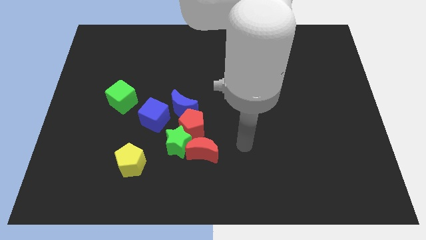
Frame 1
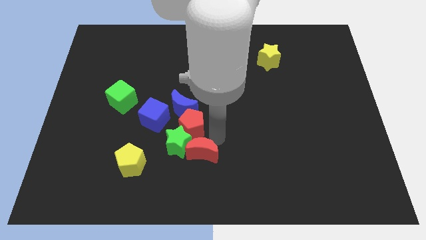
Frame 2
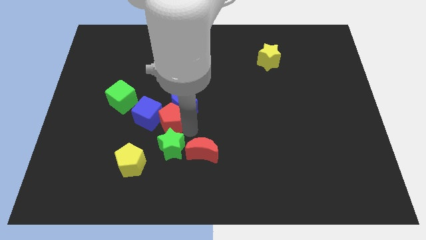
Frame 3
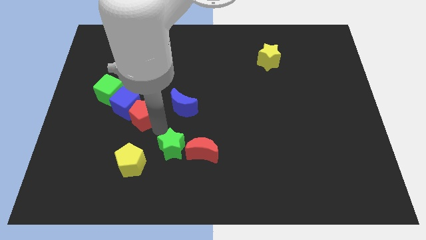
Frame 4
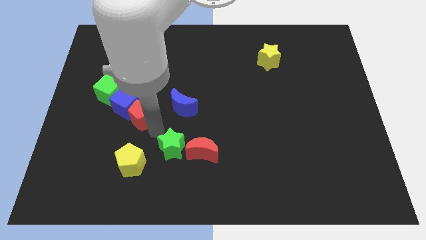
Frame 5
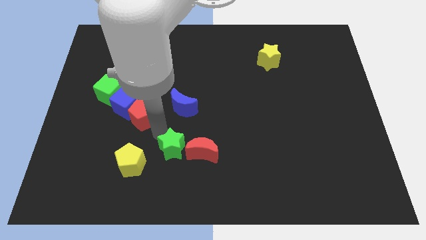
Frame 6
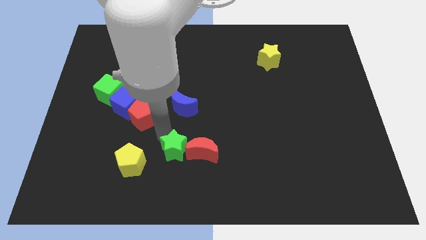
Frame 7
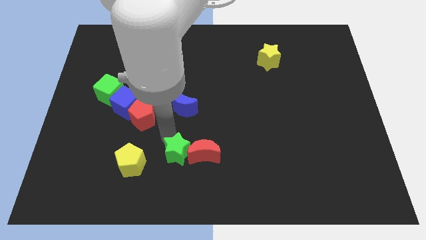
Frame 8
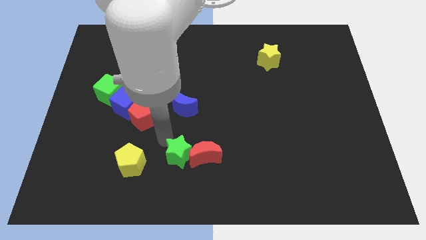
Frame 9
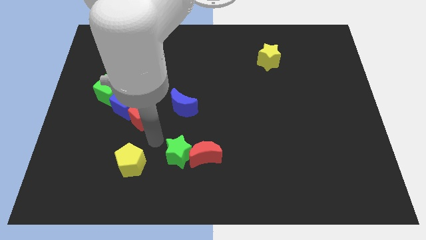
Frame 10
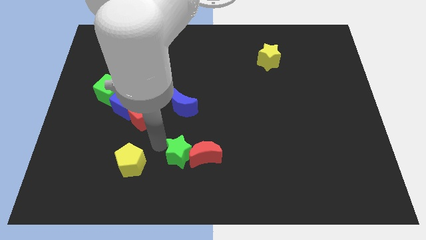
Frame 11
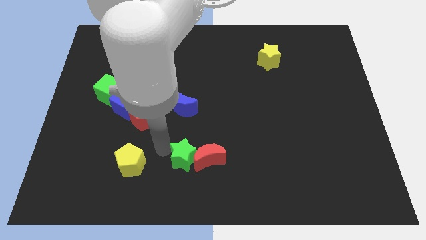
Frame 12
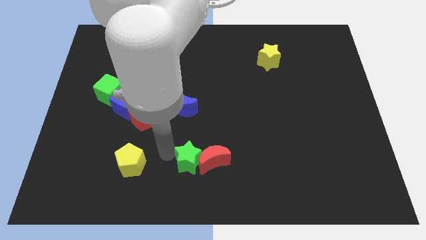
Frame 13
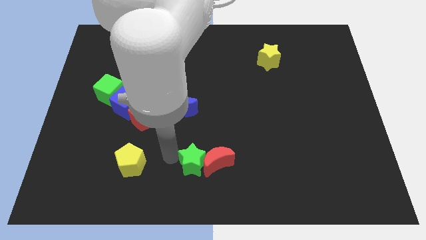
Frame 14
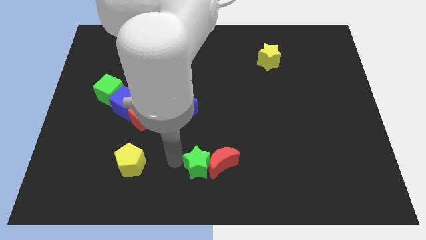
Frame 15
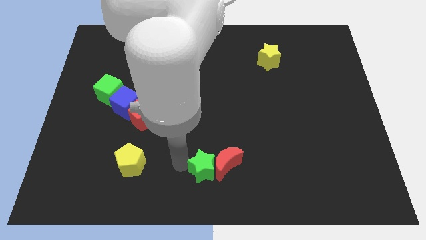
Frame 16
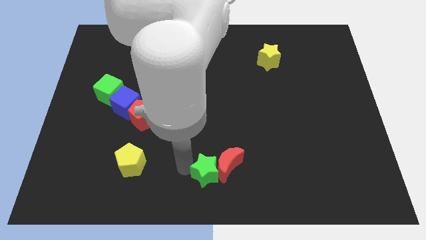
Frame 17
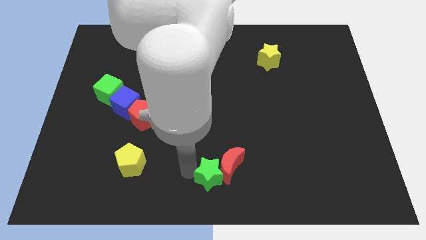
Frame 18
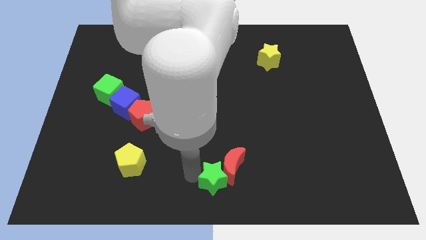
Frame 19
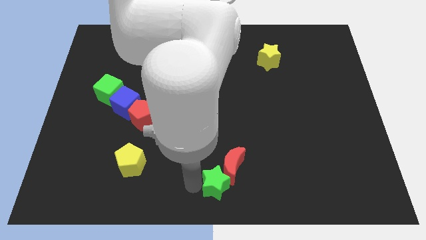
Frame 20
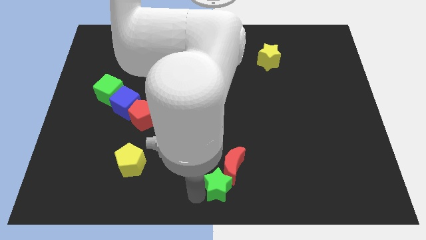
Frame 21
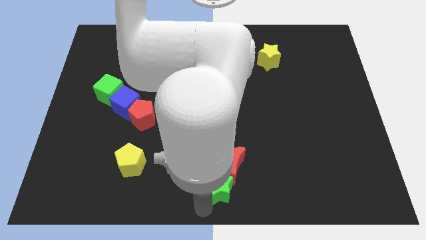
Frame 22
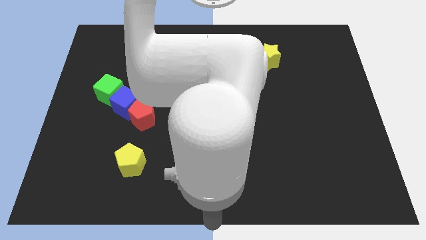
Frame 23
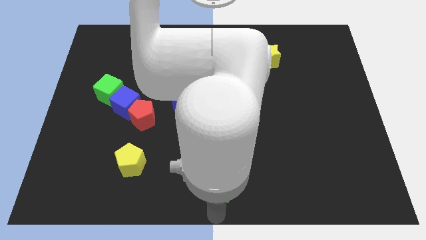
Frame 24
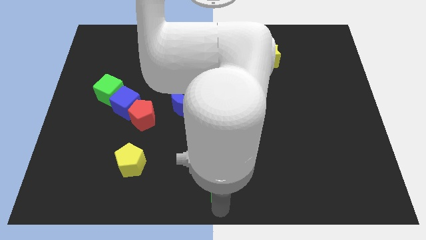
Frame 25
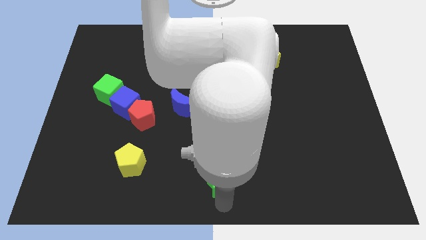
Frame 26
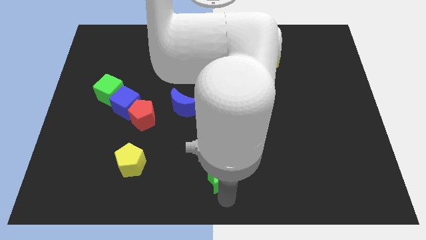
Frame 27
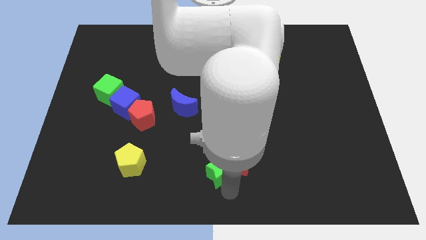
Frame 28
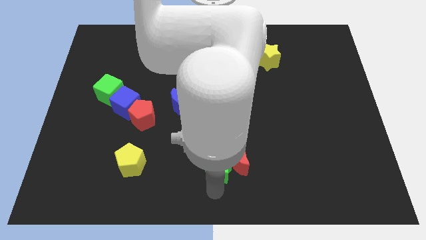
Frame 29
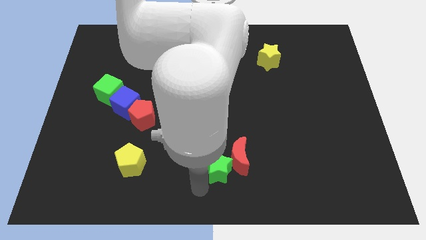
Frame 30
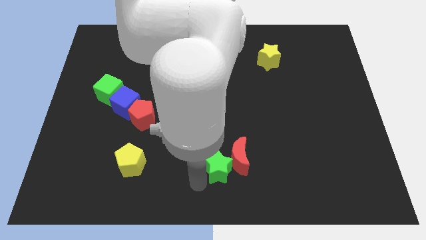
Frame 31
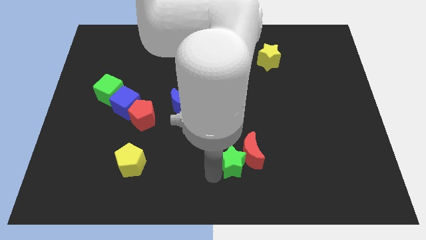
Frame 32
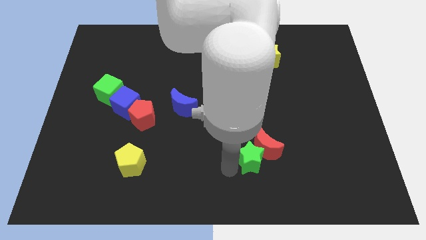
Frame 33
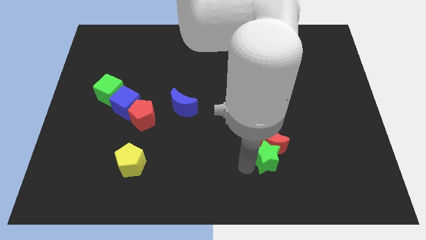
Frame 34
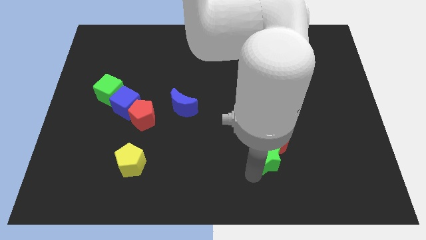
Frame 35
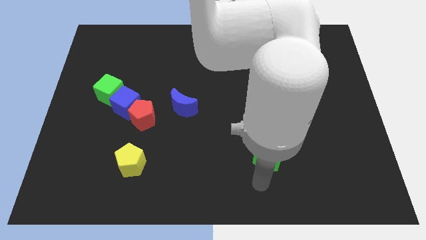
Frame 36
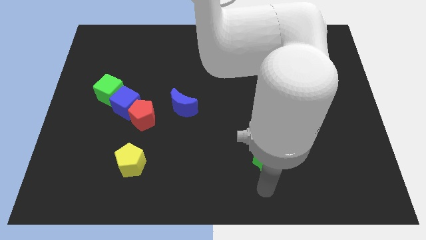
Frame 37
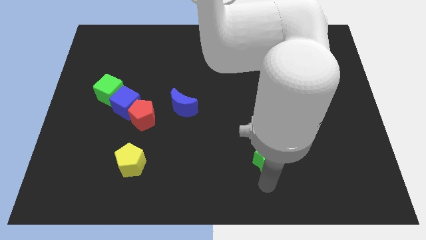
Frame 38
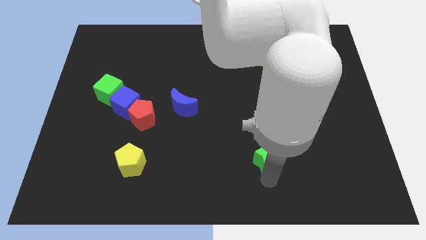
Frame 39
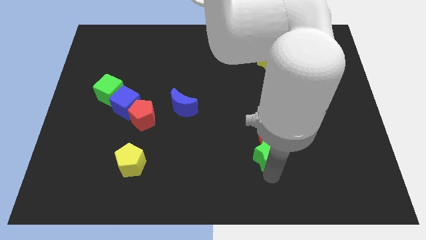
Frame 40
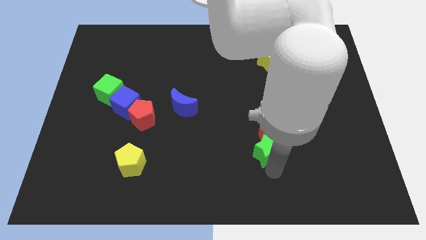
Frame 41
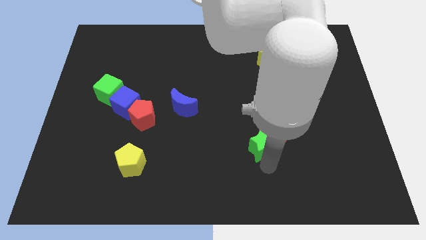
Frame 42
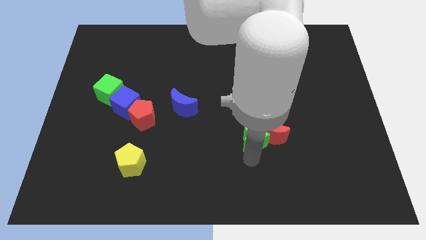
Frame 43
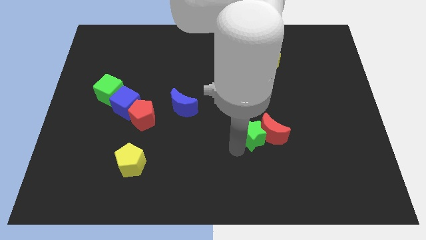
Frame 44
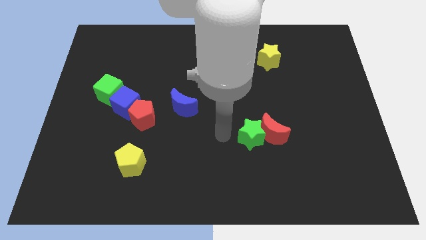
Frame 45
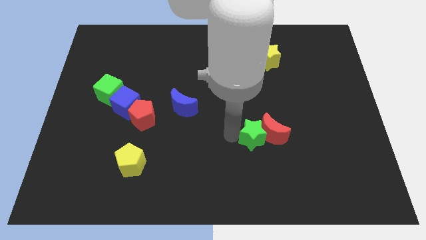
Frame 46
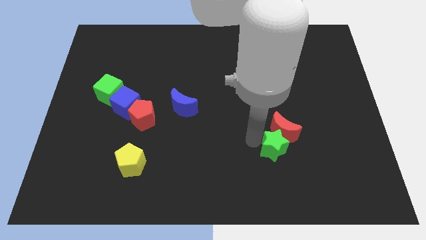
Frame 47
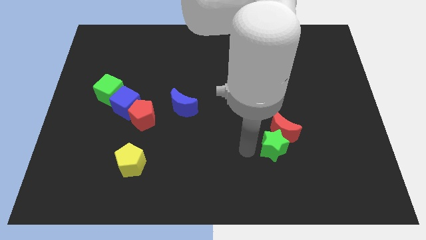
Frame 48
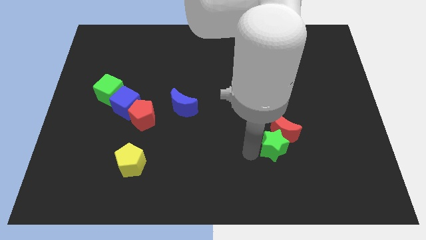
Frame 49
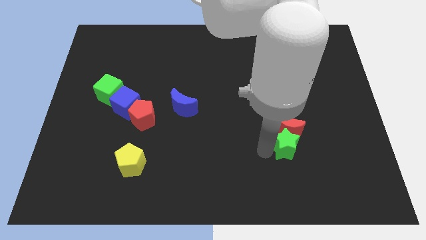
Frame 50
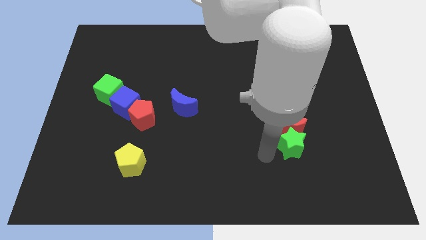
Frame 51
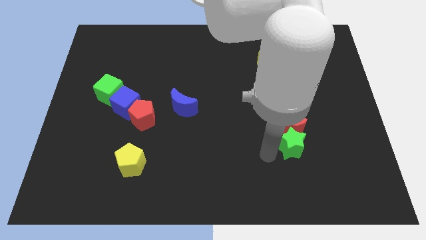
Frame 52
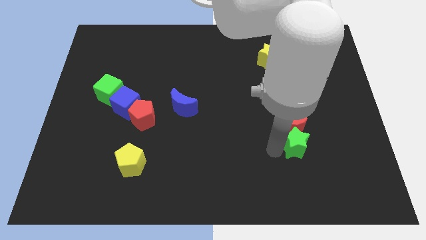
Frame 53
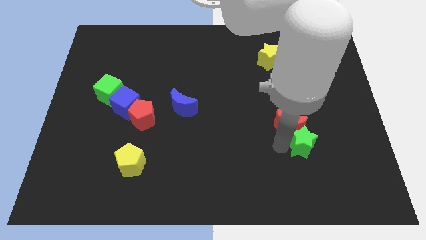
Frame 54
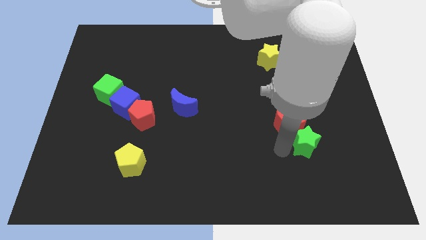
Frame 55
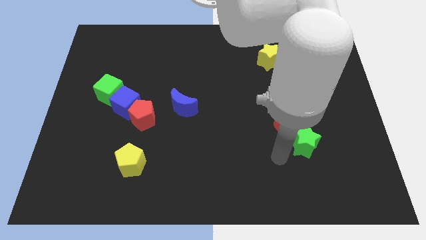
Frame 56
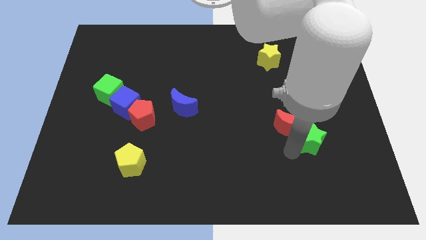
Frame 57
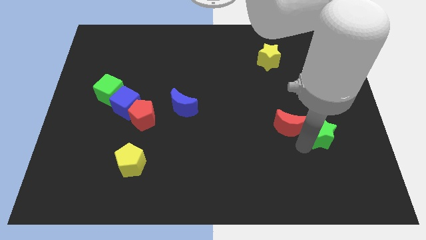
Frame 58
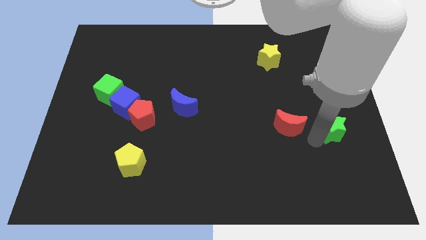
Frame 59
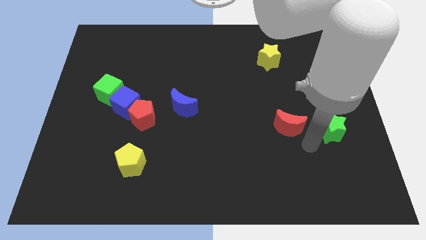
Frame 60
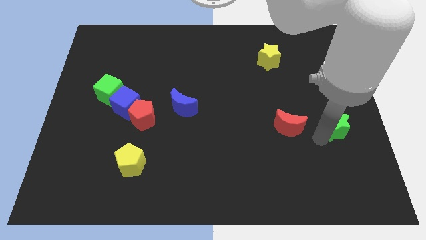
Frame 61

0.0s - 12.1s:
slide the green star to the right side of the board

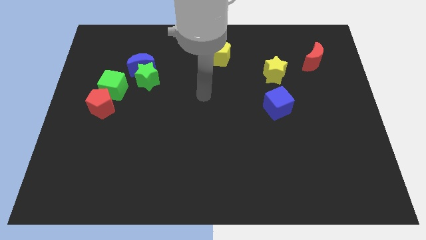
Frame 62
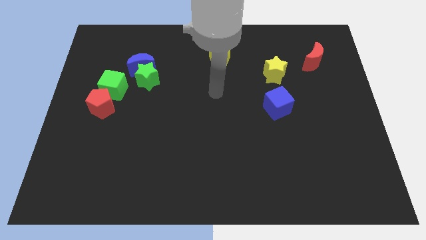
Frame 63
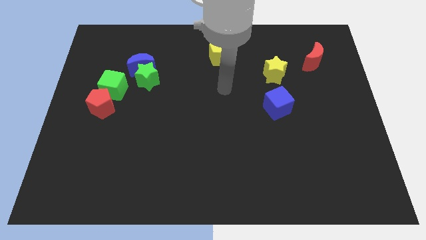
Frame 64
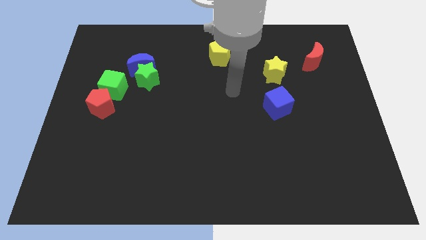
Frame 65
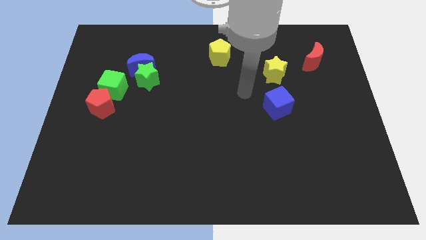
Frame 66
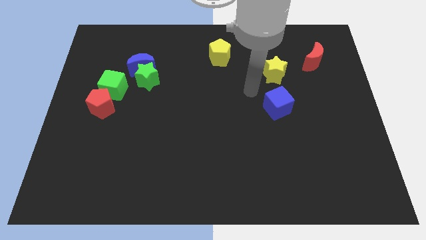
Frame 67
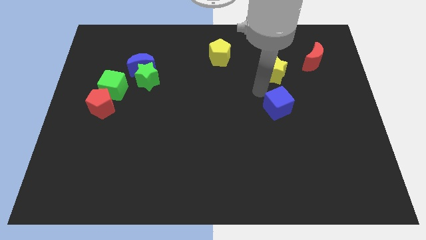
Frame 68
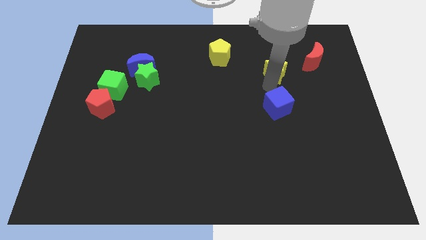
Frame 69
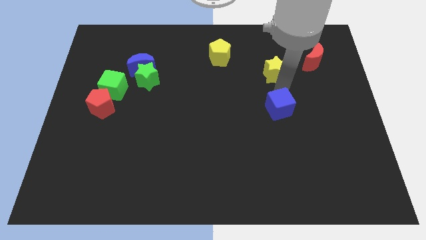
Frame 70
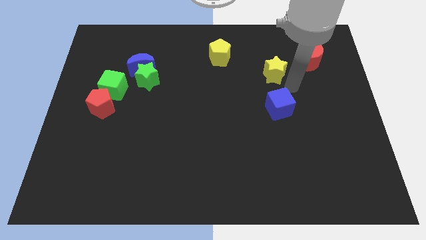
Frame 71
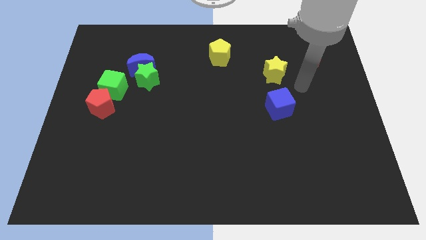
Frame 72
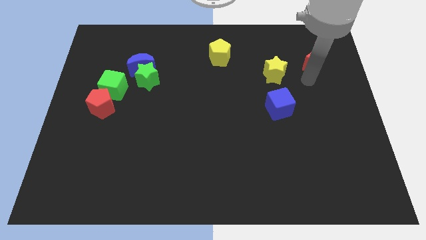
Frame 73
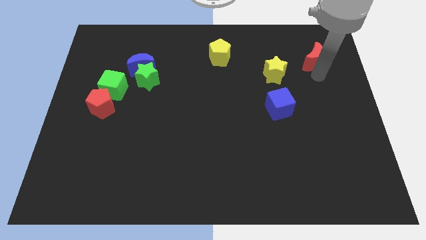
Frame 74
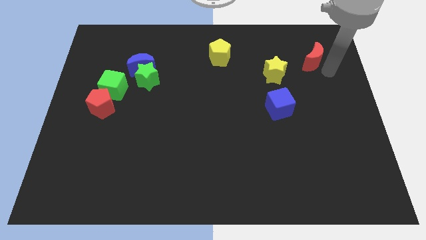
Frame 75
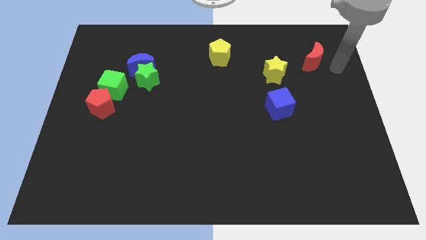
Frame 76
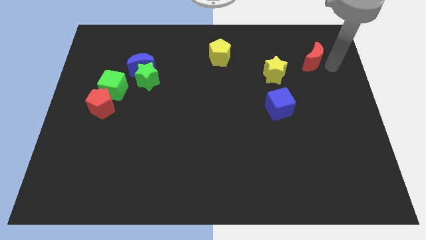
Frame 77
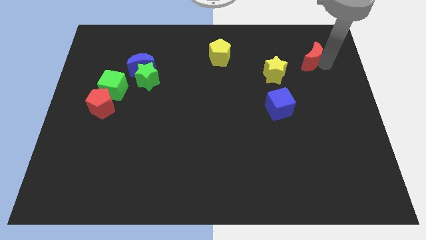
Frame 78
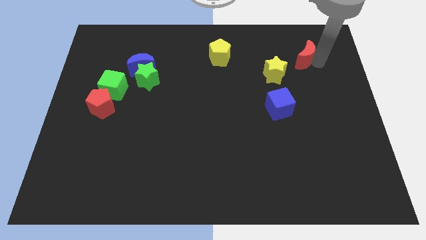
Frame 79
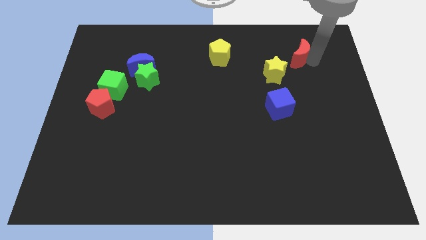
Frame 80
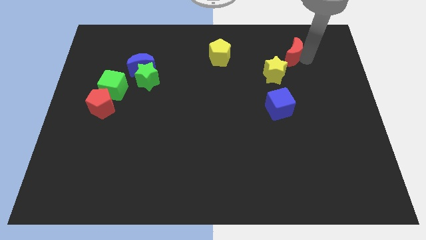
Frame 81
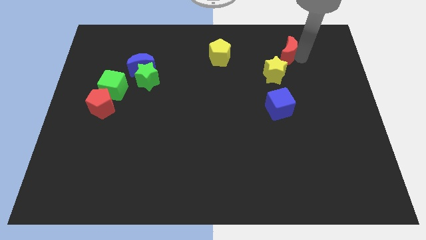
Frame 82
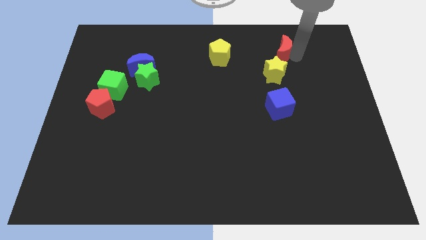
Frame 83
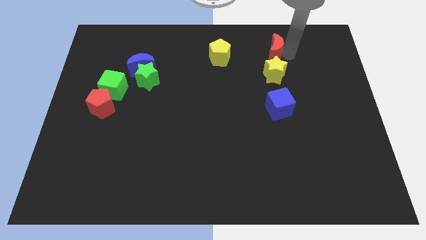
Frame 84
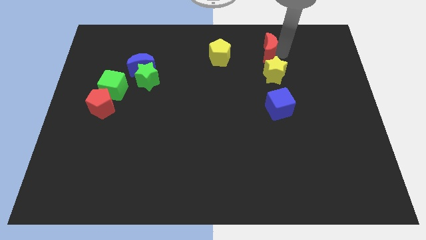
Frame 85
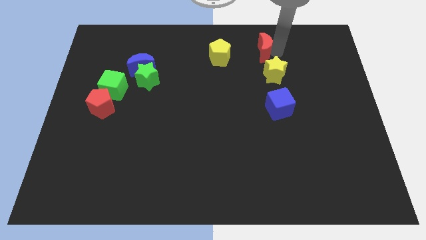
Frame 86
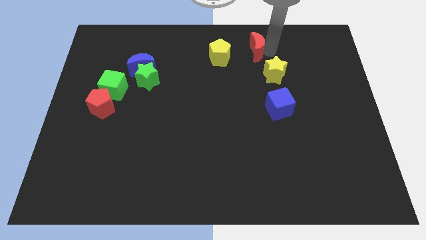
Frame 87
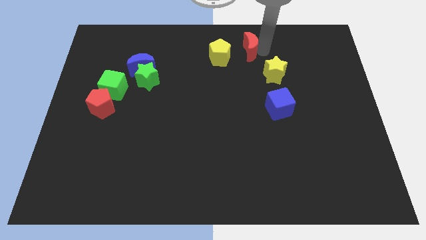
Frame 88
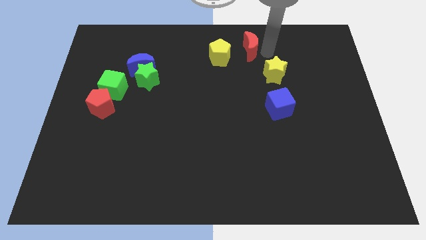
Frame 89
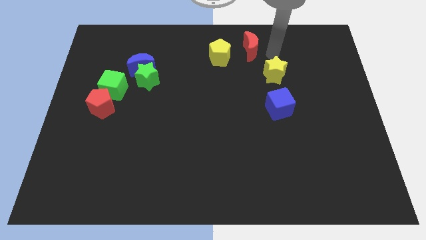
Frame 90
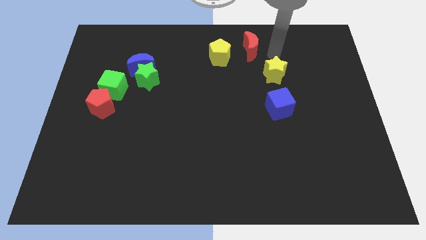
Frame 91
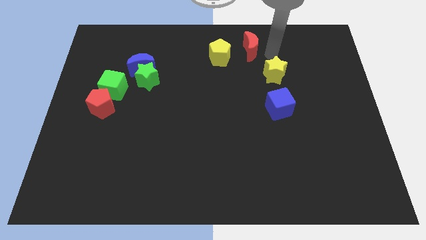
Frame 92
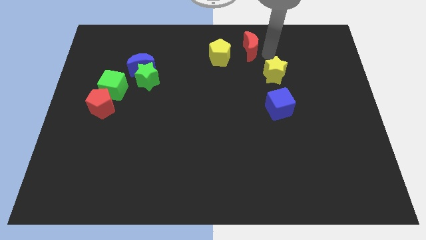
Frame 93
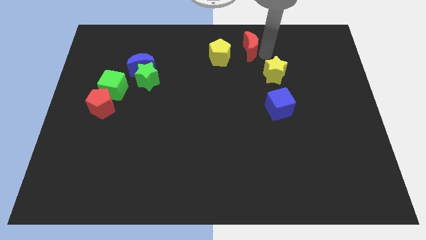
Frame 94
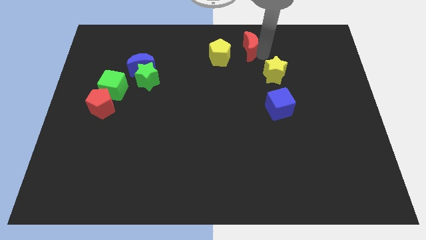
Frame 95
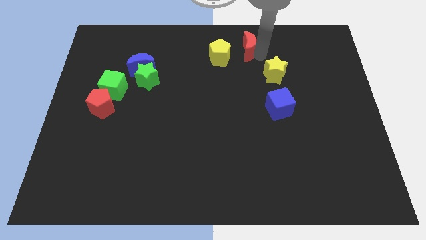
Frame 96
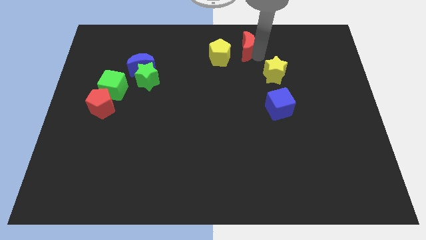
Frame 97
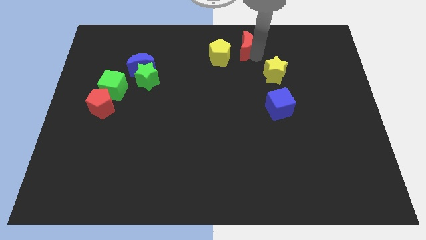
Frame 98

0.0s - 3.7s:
push the red moon to the towards your base
